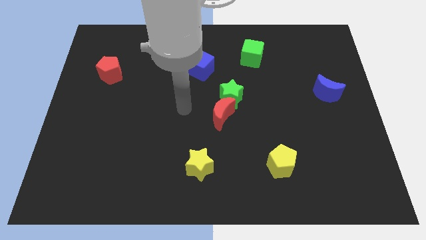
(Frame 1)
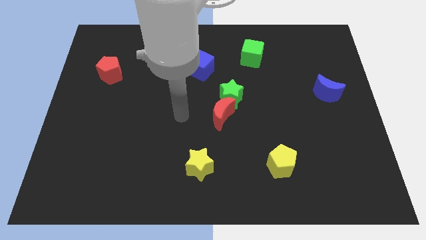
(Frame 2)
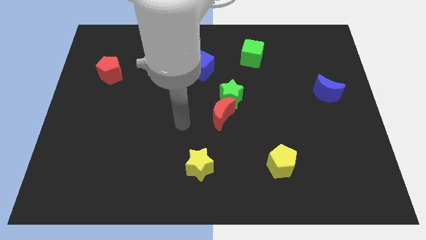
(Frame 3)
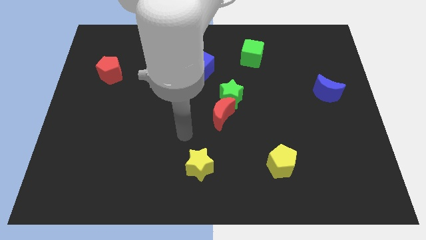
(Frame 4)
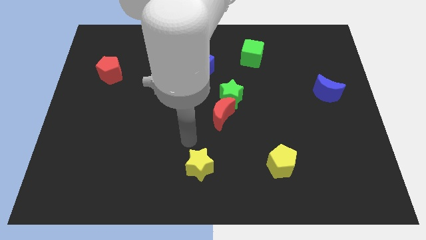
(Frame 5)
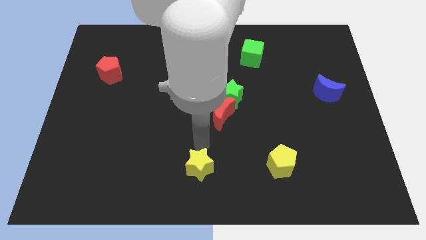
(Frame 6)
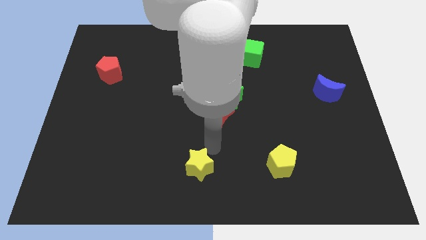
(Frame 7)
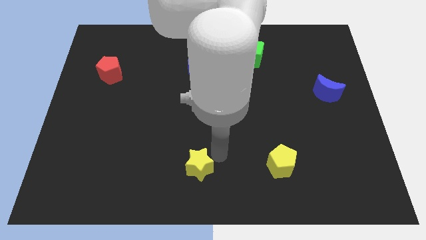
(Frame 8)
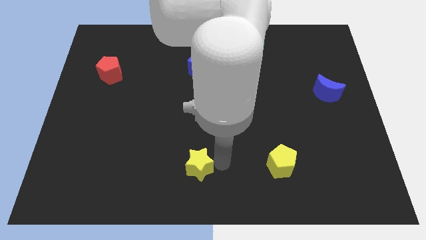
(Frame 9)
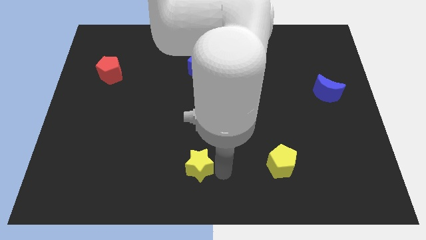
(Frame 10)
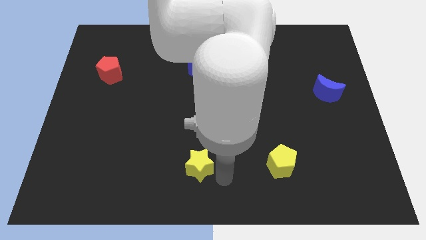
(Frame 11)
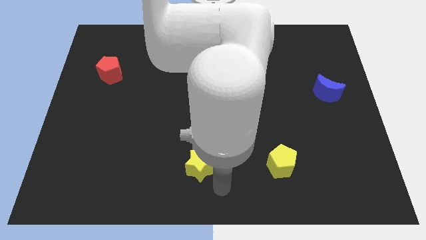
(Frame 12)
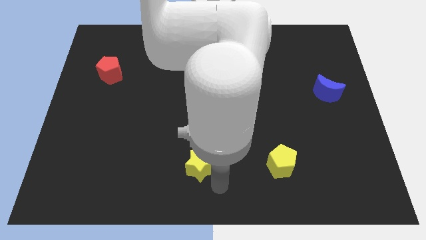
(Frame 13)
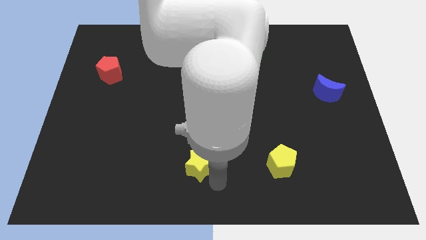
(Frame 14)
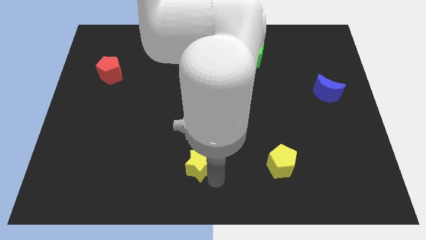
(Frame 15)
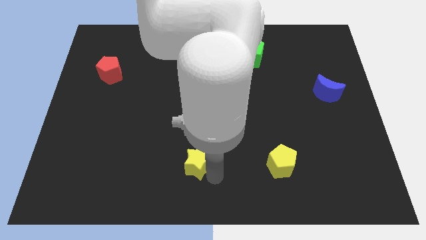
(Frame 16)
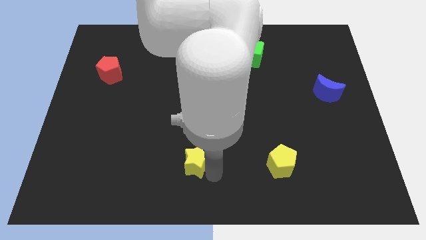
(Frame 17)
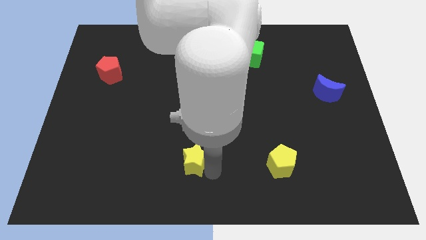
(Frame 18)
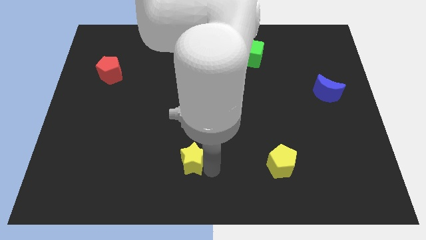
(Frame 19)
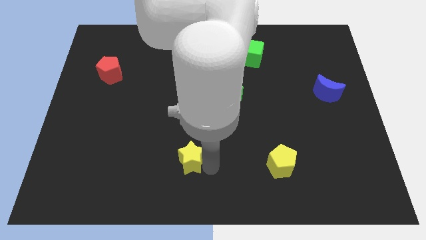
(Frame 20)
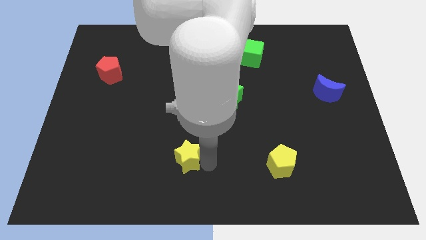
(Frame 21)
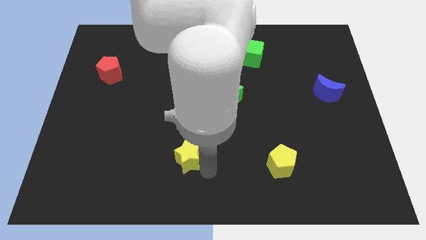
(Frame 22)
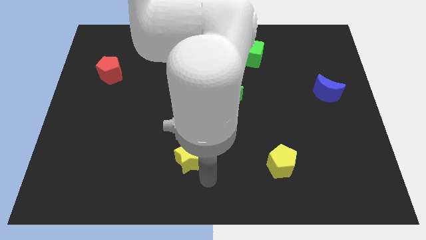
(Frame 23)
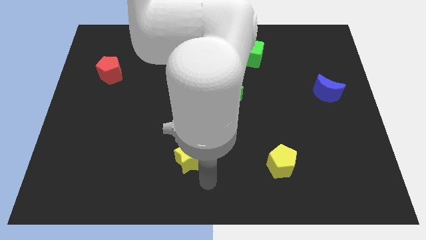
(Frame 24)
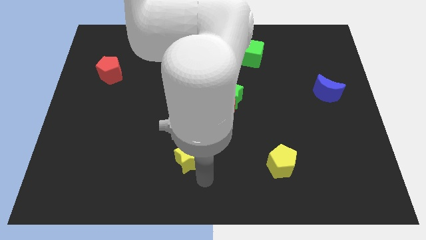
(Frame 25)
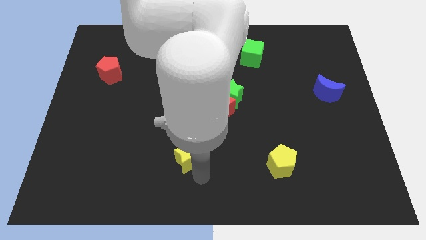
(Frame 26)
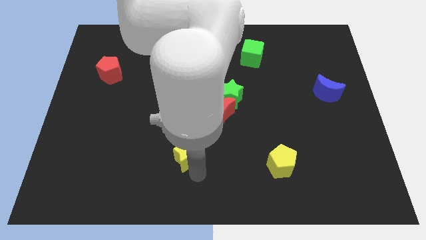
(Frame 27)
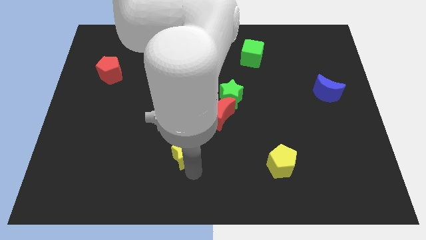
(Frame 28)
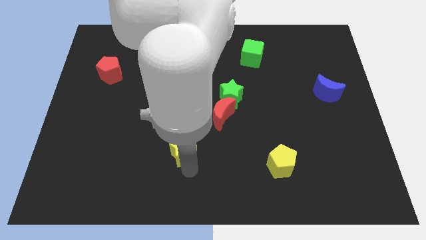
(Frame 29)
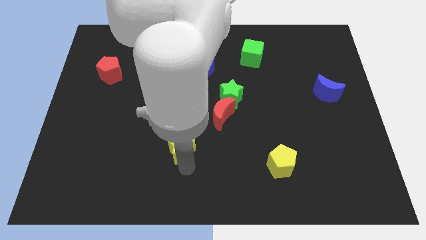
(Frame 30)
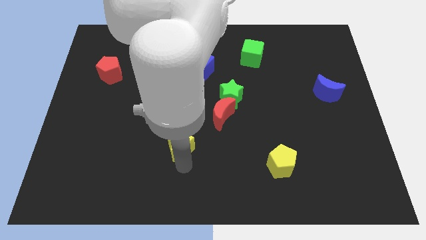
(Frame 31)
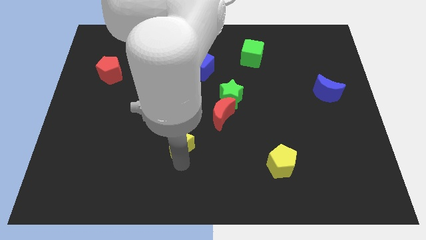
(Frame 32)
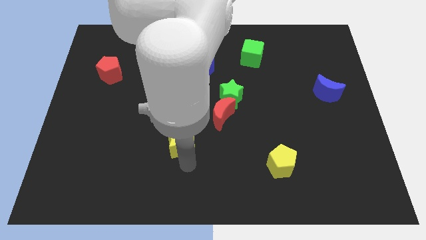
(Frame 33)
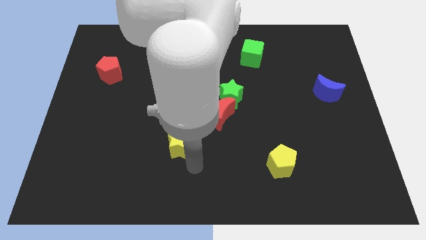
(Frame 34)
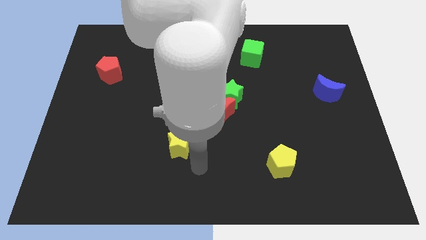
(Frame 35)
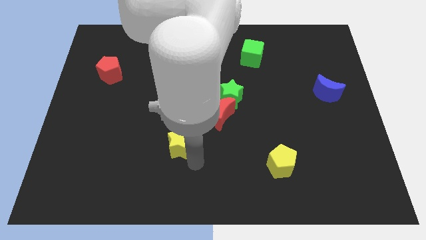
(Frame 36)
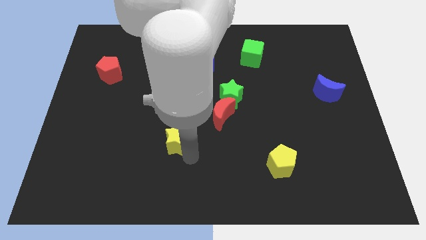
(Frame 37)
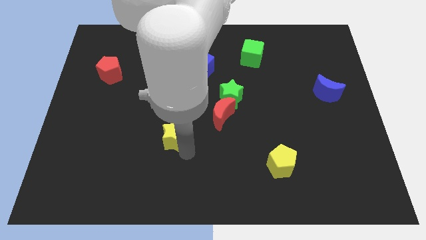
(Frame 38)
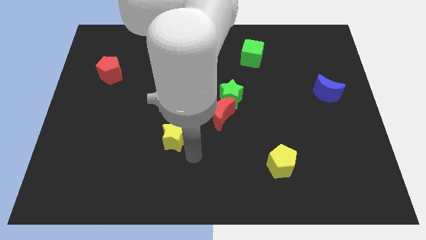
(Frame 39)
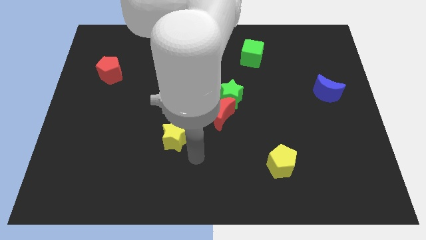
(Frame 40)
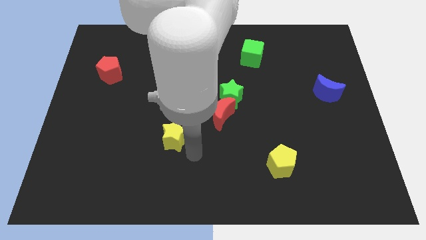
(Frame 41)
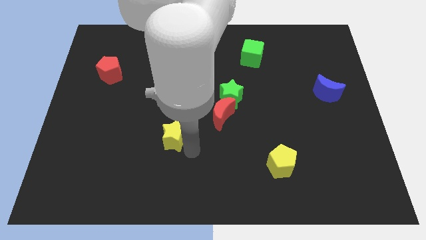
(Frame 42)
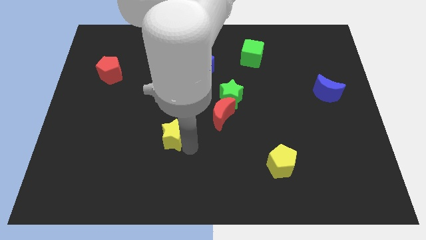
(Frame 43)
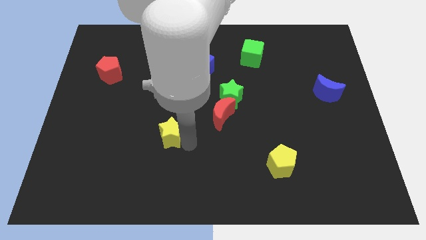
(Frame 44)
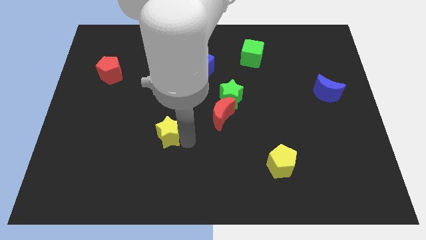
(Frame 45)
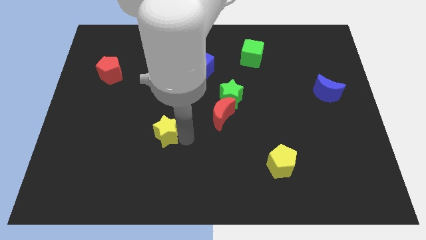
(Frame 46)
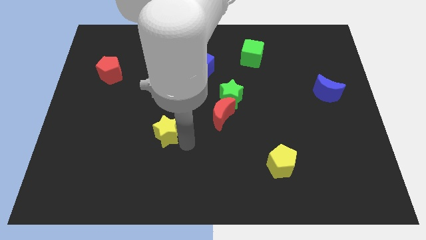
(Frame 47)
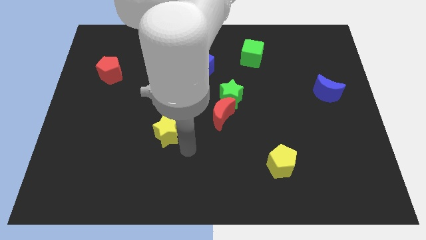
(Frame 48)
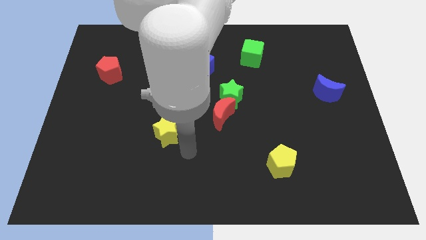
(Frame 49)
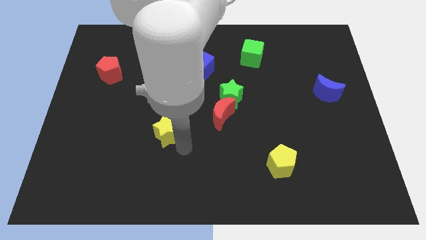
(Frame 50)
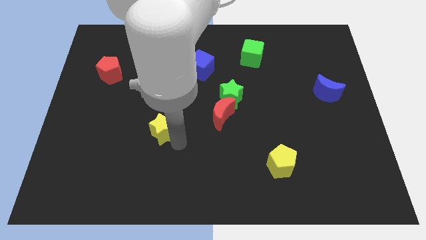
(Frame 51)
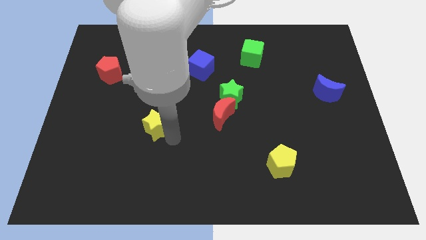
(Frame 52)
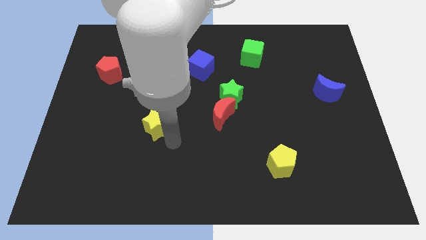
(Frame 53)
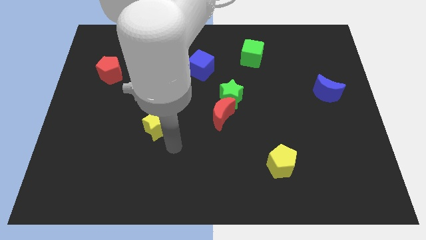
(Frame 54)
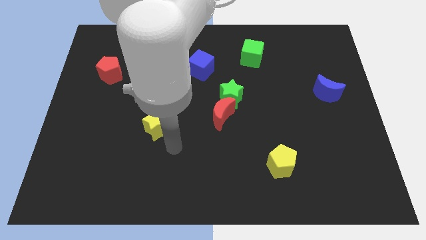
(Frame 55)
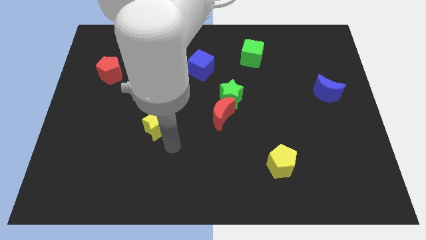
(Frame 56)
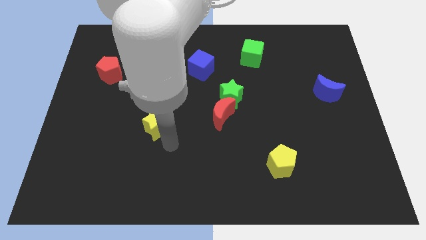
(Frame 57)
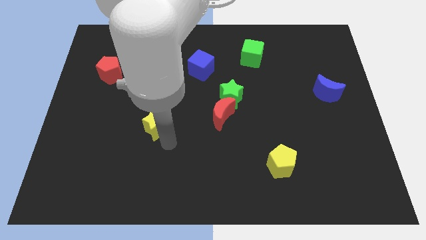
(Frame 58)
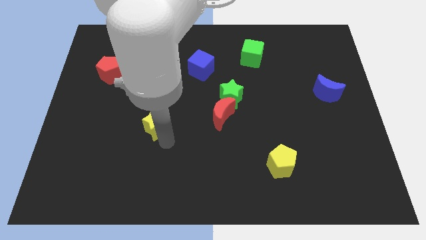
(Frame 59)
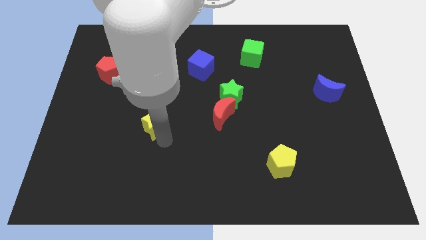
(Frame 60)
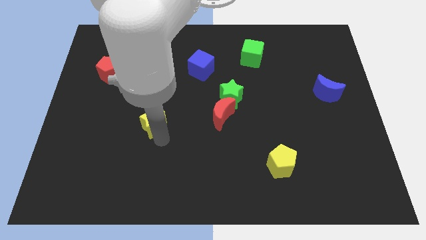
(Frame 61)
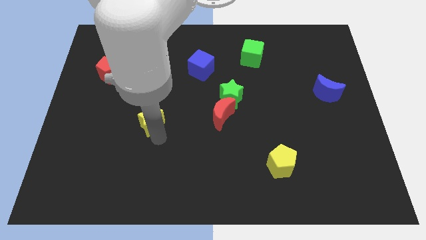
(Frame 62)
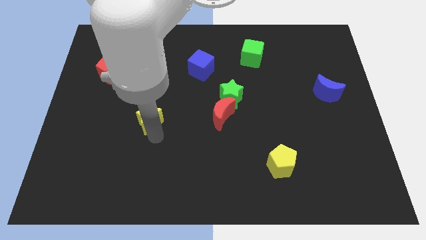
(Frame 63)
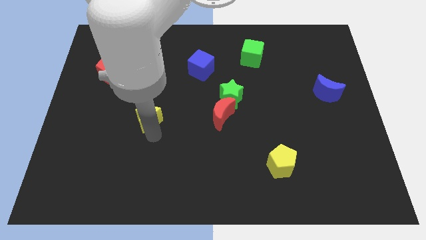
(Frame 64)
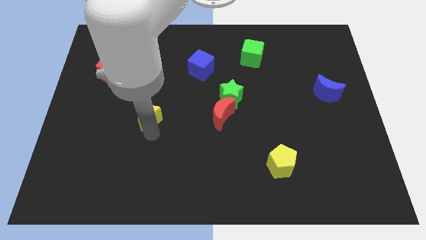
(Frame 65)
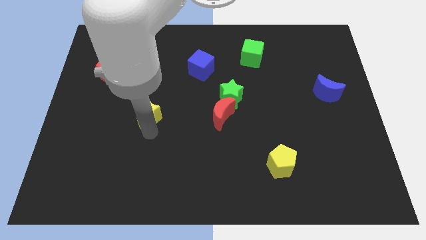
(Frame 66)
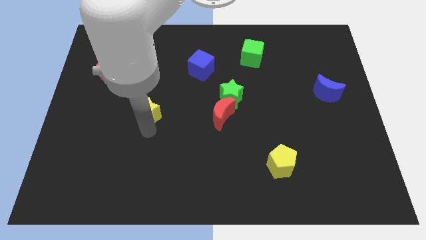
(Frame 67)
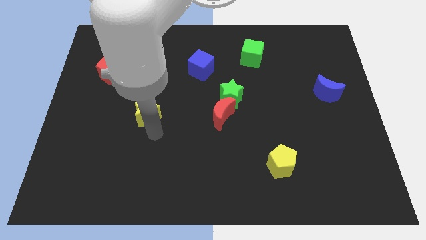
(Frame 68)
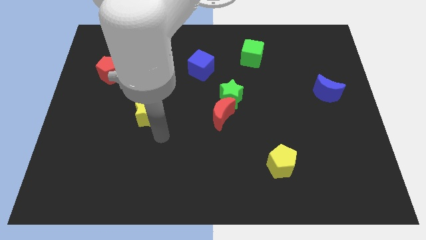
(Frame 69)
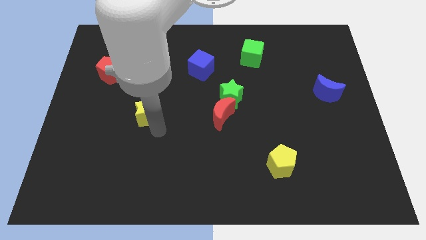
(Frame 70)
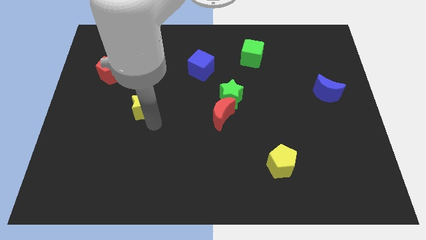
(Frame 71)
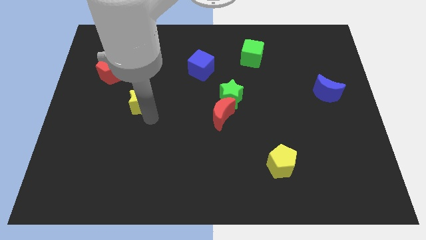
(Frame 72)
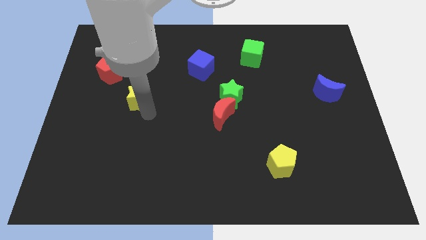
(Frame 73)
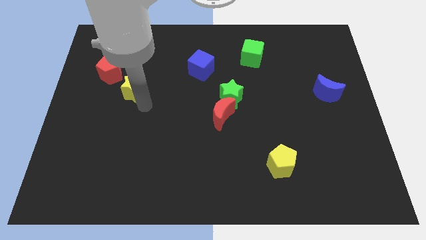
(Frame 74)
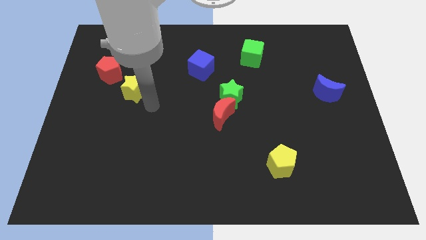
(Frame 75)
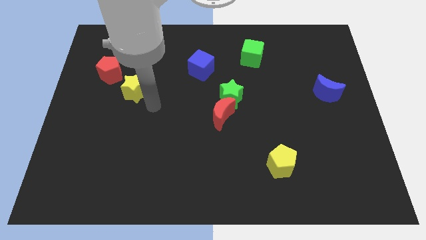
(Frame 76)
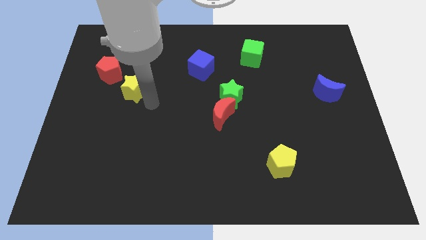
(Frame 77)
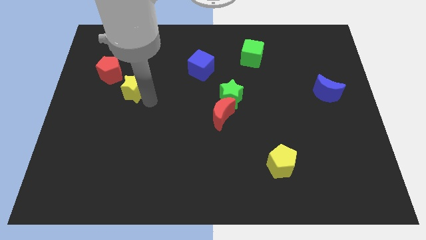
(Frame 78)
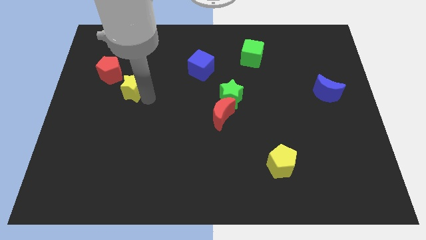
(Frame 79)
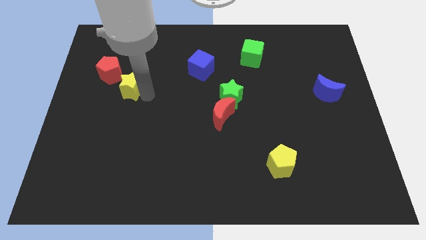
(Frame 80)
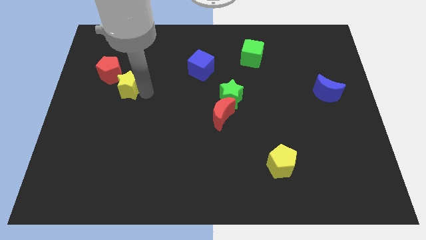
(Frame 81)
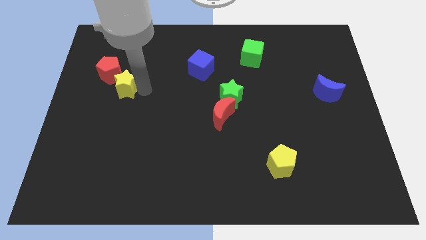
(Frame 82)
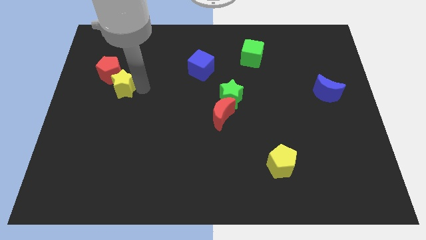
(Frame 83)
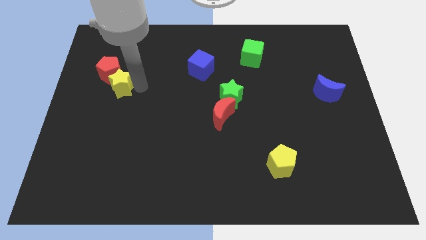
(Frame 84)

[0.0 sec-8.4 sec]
put the yellow star to the red pentagon
